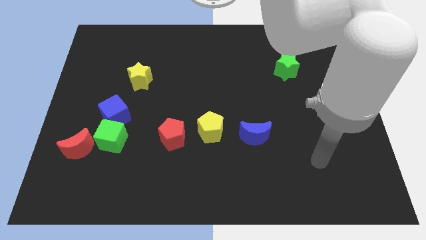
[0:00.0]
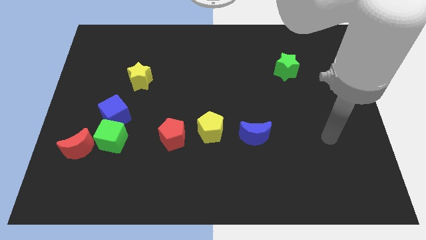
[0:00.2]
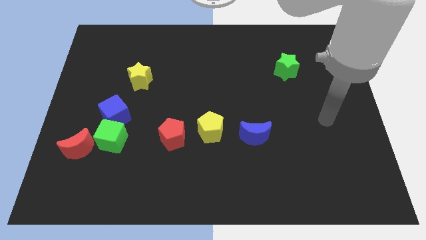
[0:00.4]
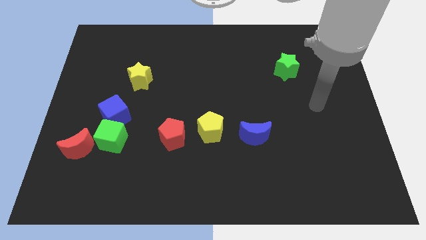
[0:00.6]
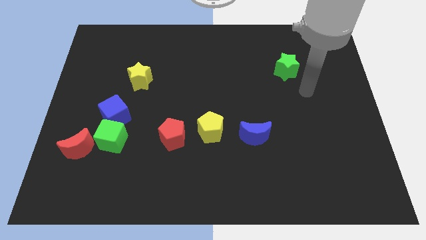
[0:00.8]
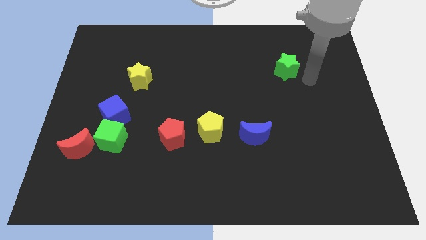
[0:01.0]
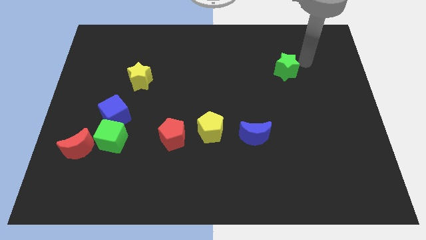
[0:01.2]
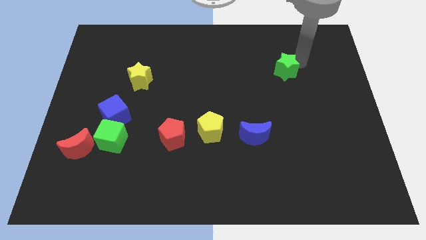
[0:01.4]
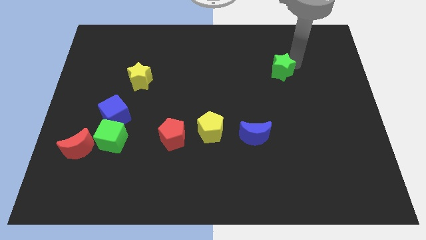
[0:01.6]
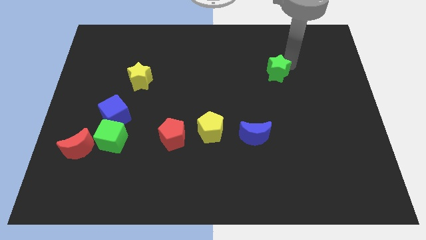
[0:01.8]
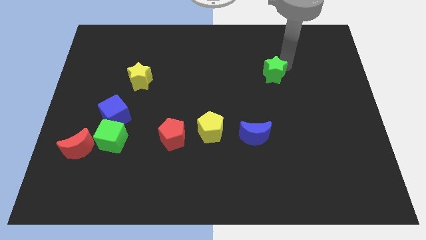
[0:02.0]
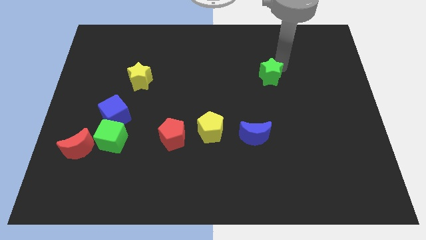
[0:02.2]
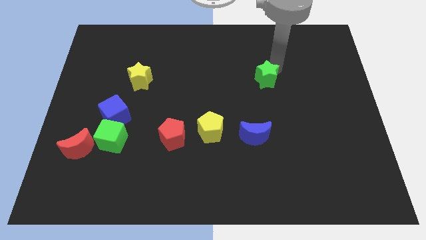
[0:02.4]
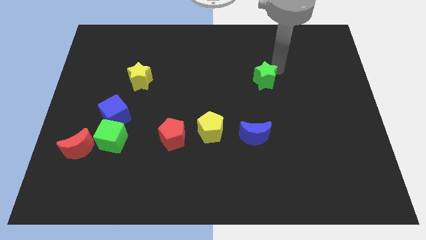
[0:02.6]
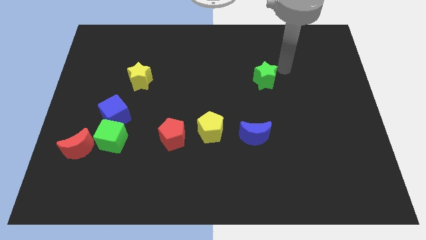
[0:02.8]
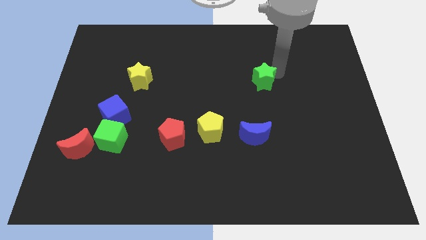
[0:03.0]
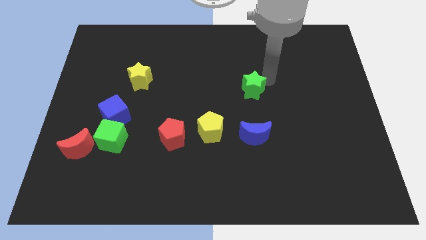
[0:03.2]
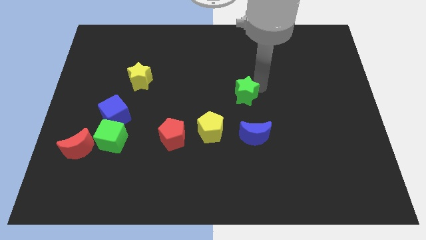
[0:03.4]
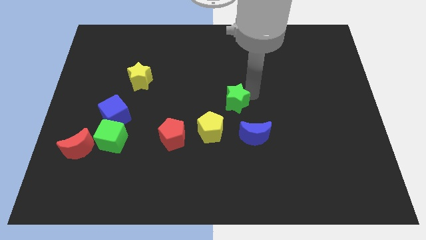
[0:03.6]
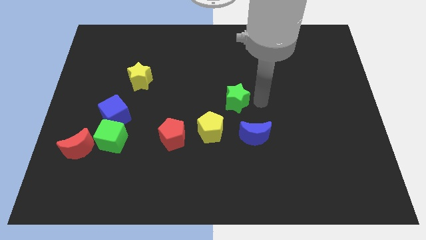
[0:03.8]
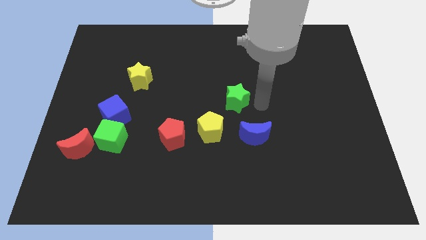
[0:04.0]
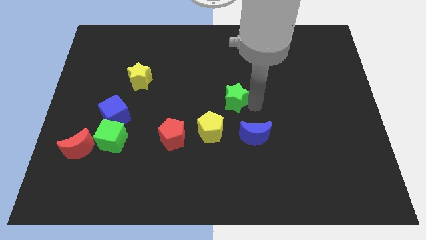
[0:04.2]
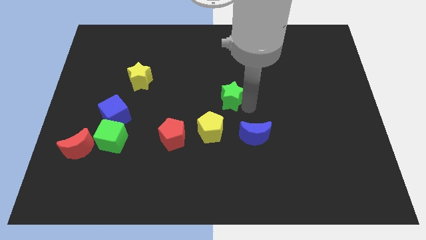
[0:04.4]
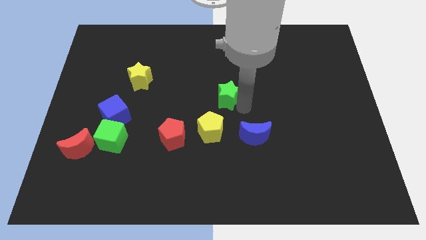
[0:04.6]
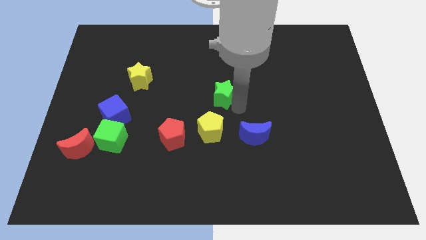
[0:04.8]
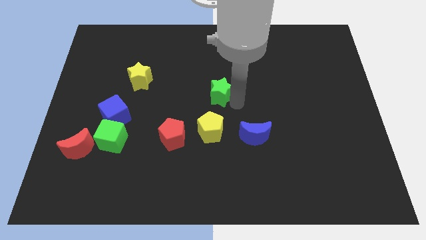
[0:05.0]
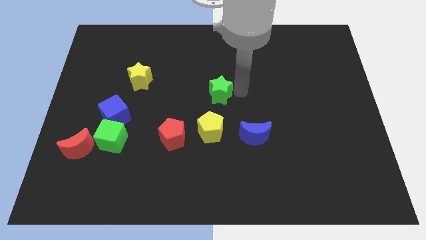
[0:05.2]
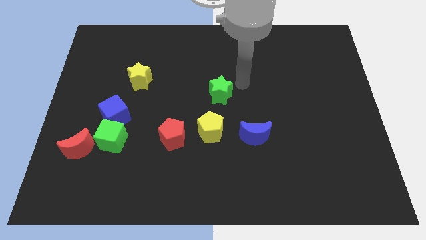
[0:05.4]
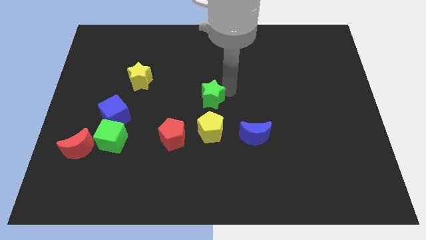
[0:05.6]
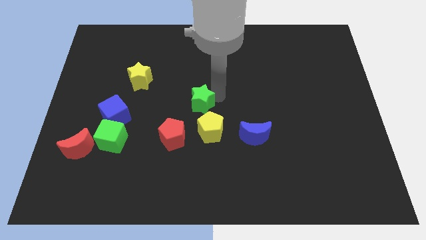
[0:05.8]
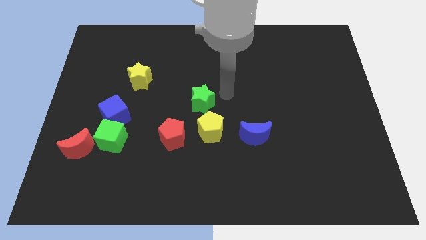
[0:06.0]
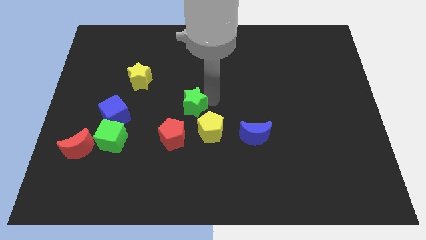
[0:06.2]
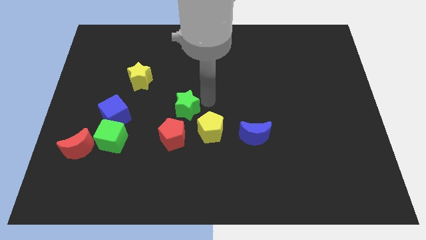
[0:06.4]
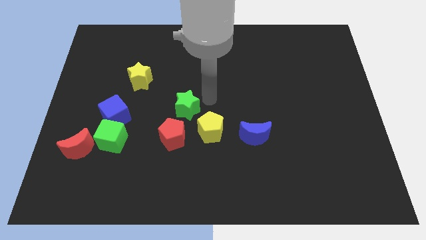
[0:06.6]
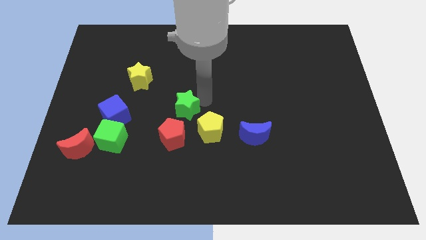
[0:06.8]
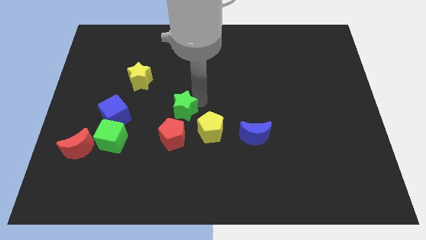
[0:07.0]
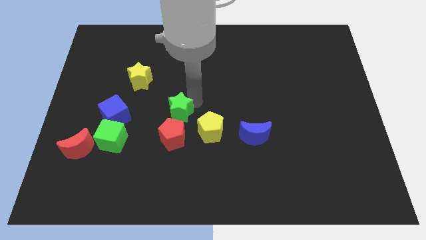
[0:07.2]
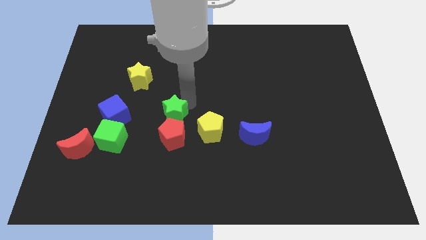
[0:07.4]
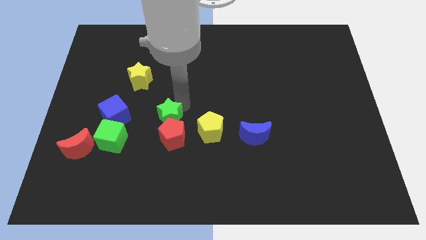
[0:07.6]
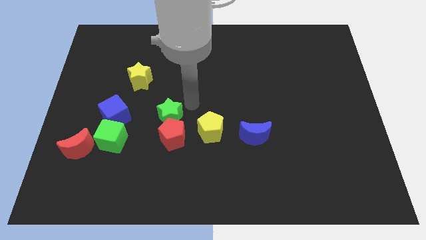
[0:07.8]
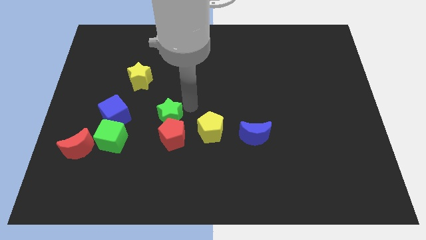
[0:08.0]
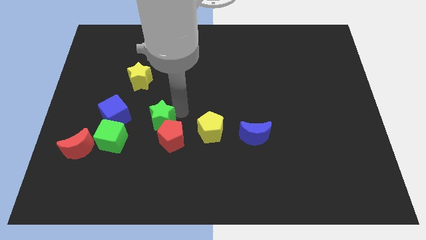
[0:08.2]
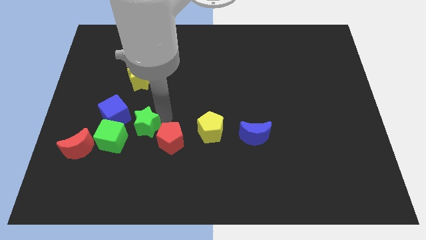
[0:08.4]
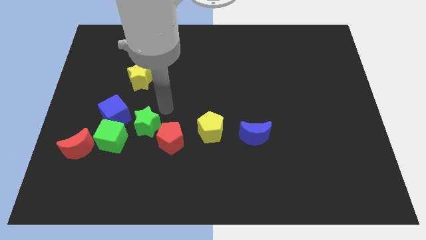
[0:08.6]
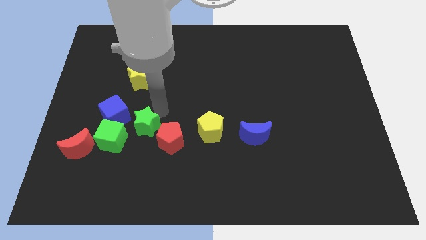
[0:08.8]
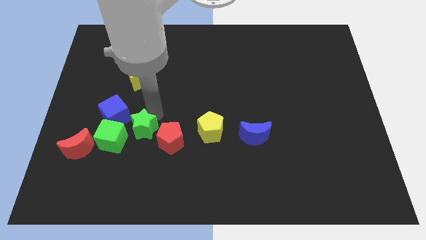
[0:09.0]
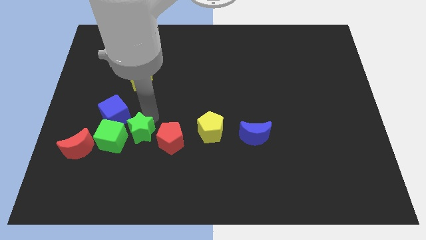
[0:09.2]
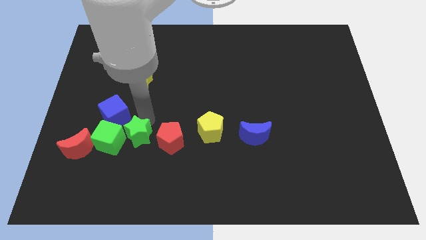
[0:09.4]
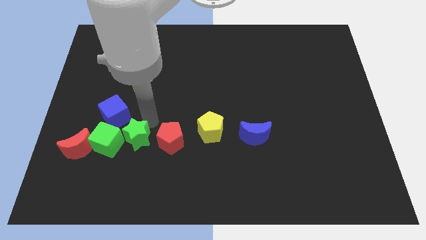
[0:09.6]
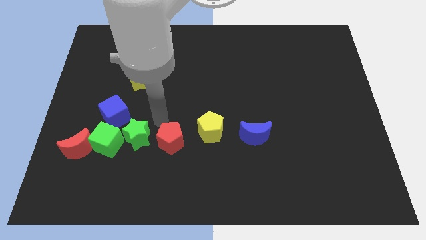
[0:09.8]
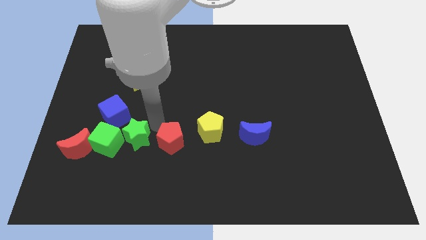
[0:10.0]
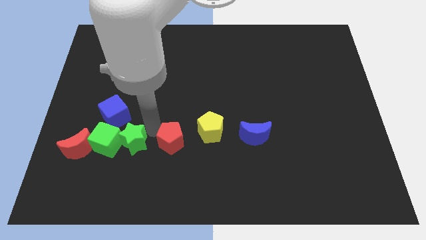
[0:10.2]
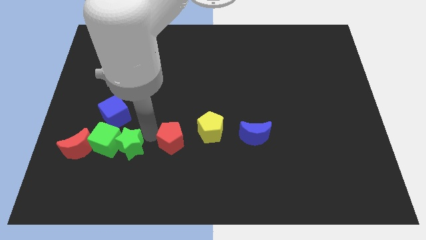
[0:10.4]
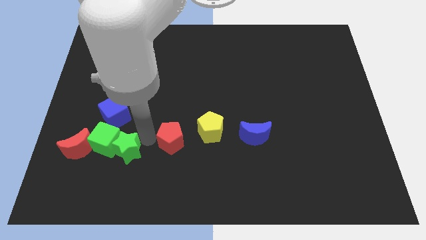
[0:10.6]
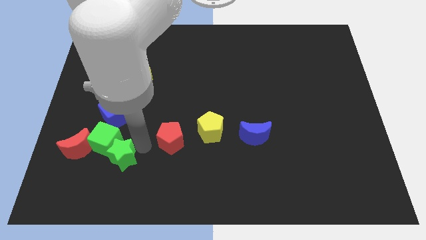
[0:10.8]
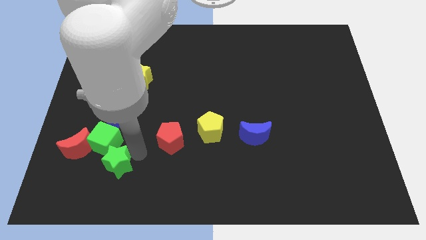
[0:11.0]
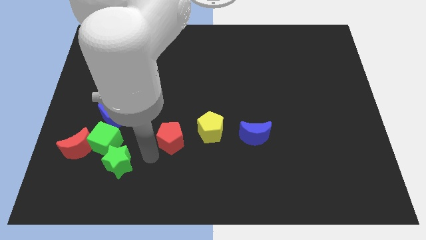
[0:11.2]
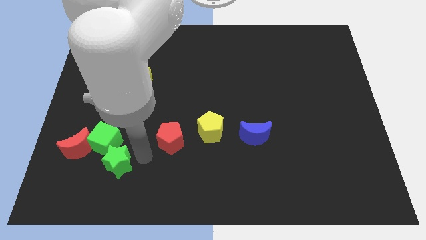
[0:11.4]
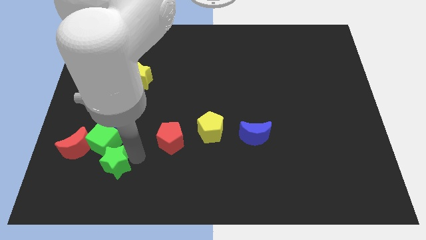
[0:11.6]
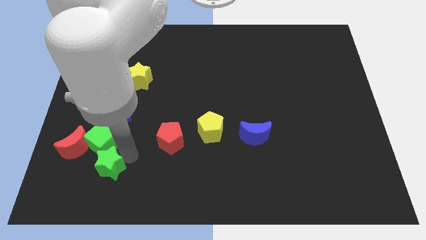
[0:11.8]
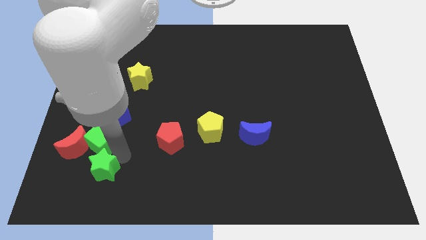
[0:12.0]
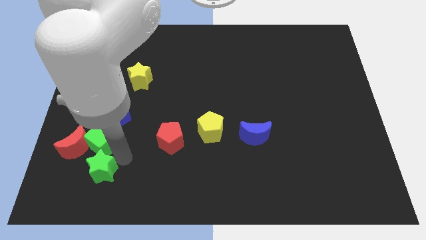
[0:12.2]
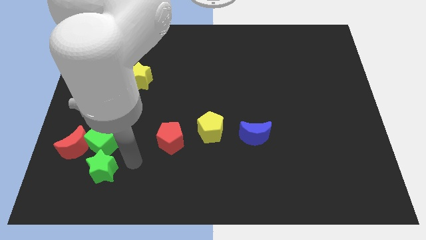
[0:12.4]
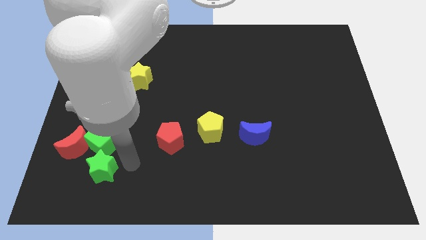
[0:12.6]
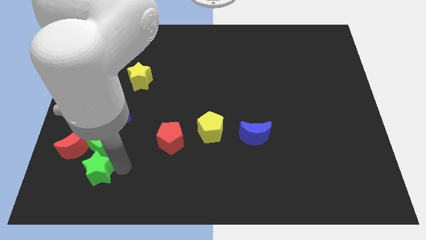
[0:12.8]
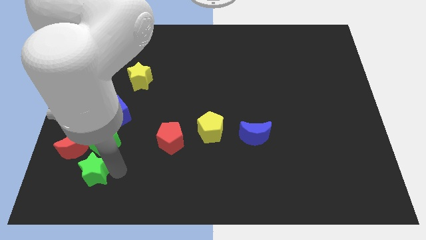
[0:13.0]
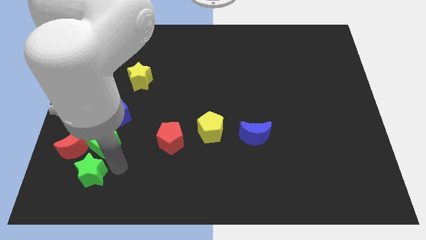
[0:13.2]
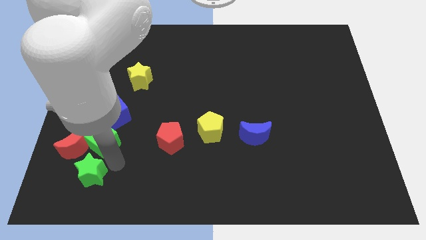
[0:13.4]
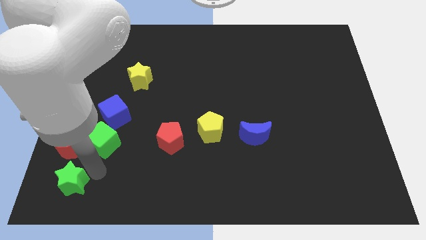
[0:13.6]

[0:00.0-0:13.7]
put the green star to the bottom left of the board
